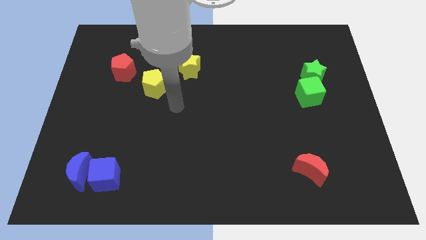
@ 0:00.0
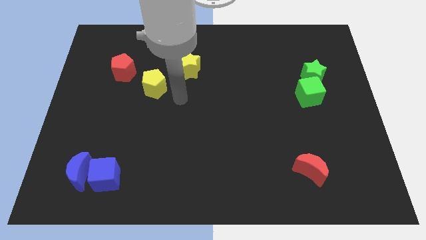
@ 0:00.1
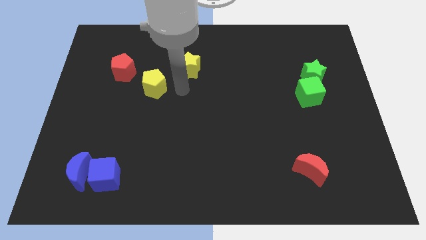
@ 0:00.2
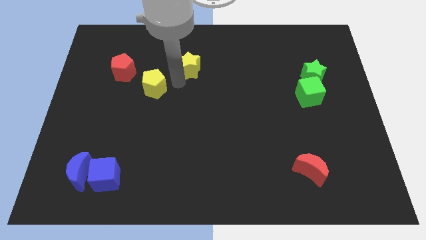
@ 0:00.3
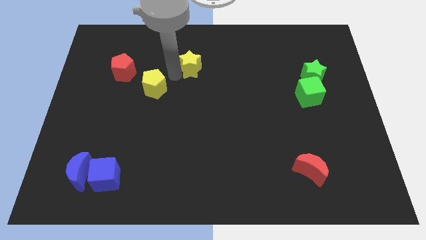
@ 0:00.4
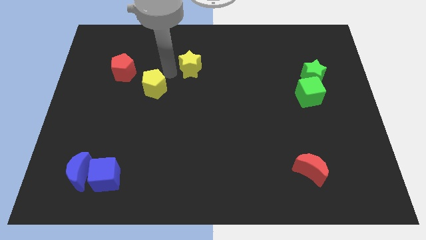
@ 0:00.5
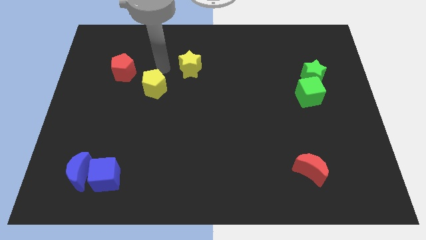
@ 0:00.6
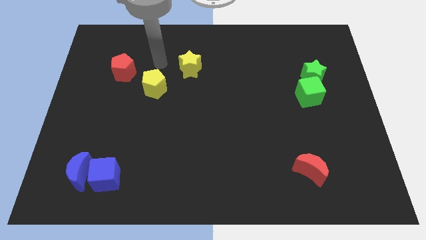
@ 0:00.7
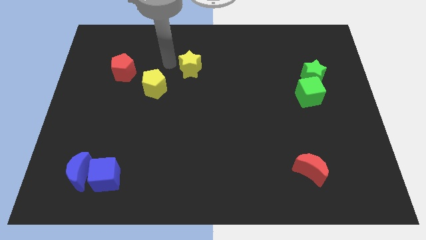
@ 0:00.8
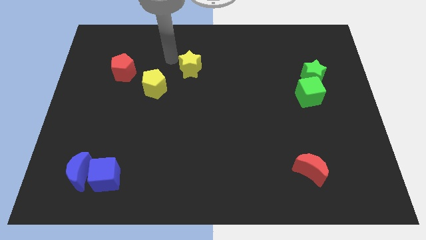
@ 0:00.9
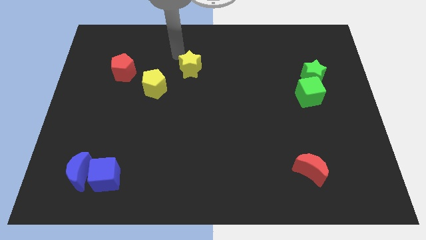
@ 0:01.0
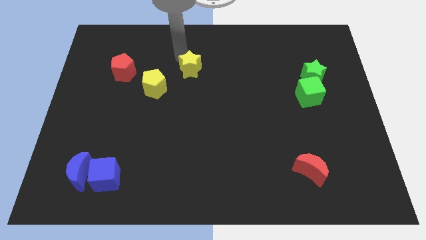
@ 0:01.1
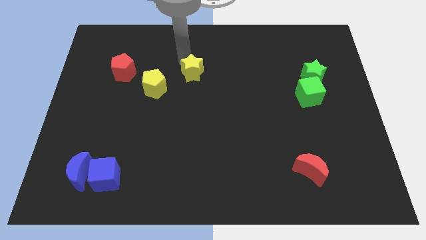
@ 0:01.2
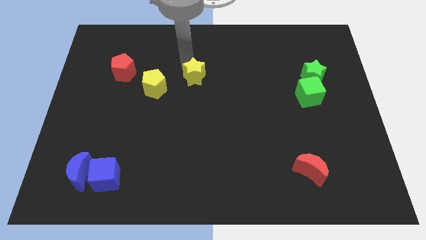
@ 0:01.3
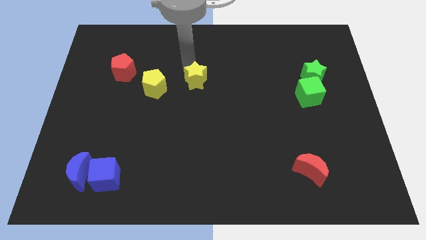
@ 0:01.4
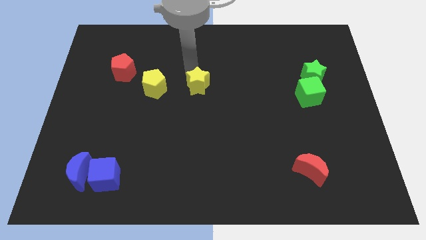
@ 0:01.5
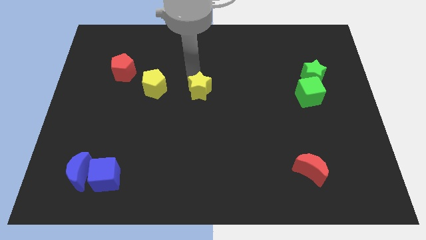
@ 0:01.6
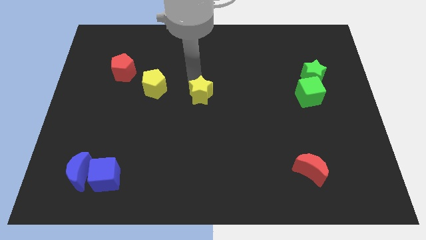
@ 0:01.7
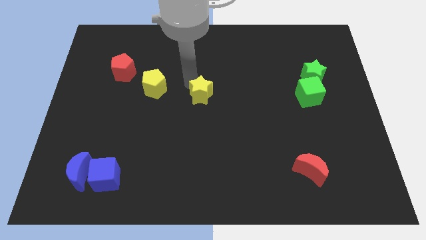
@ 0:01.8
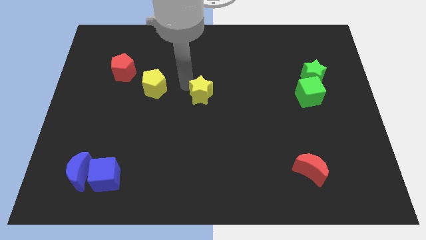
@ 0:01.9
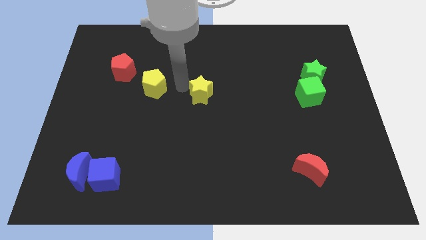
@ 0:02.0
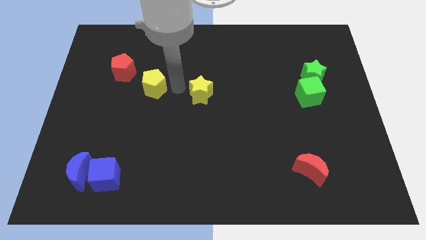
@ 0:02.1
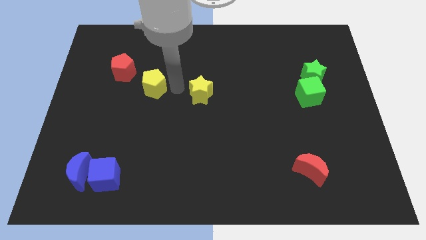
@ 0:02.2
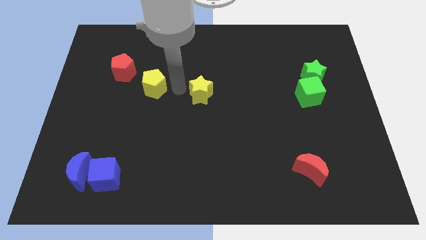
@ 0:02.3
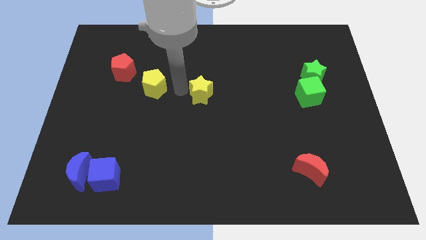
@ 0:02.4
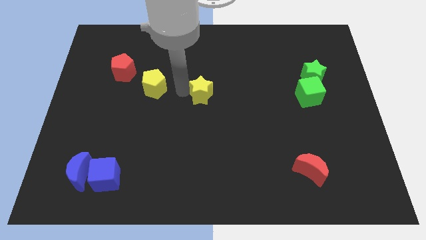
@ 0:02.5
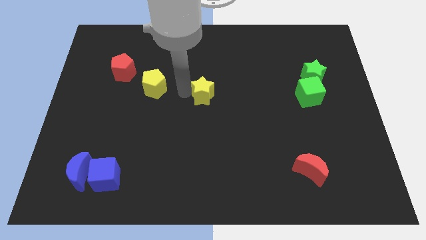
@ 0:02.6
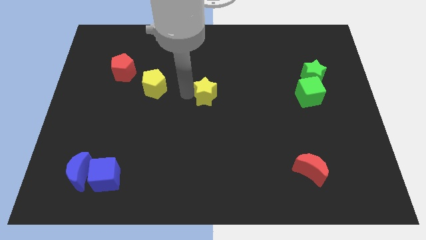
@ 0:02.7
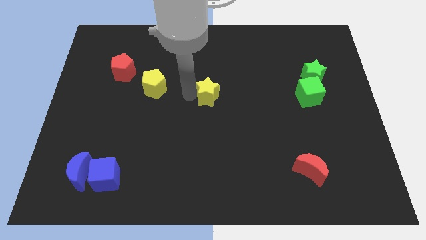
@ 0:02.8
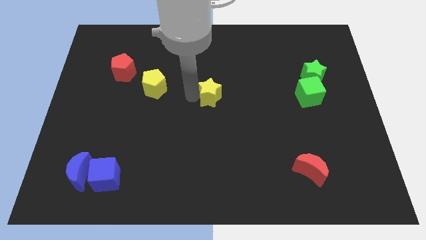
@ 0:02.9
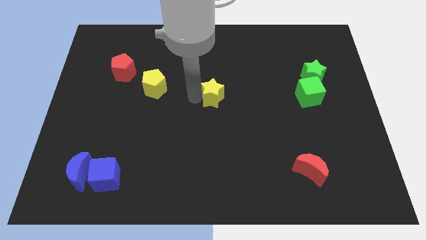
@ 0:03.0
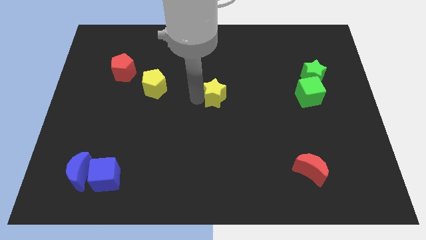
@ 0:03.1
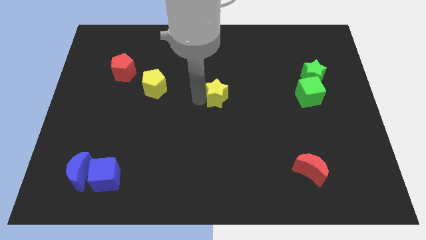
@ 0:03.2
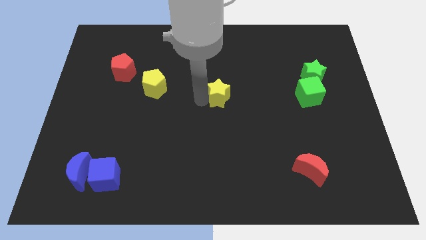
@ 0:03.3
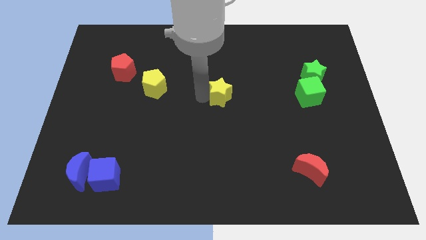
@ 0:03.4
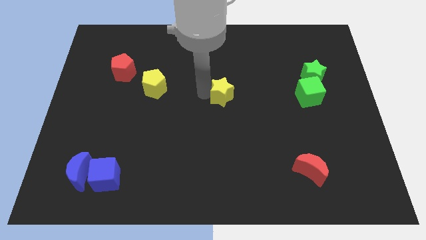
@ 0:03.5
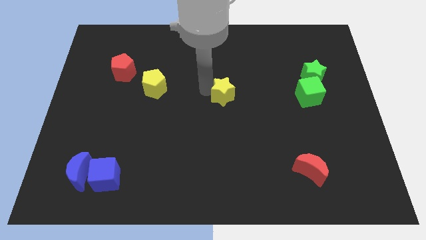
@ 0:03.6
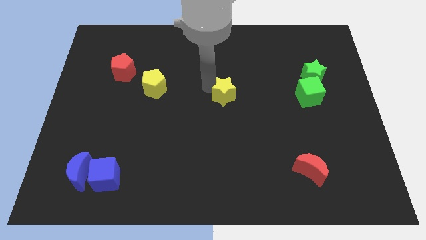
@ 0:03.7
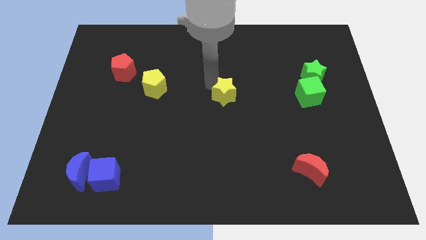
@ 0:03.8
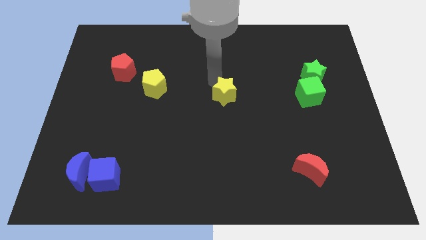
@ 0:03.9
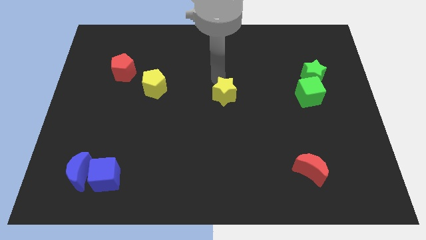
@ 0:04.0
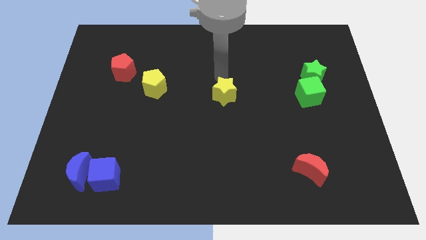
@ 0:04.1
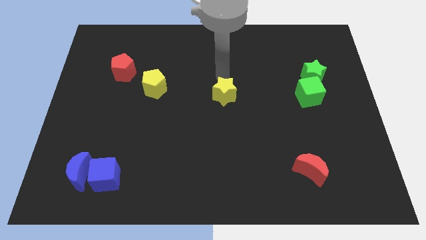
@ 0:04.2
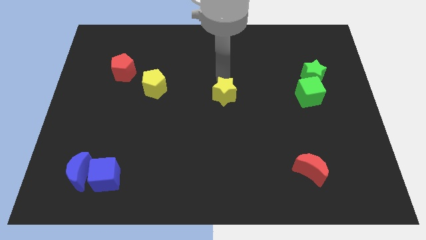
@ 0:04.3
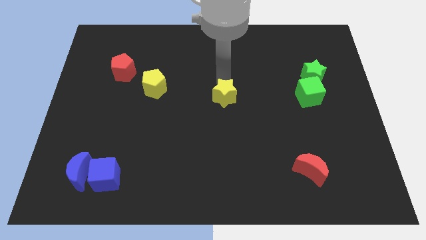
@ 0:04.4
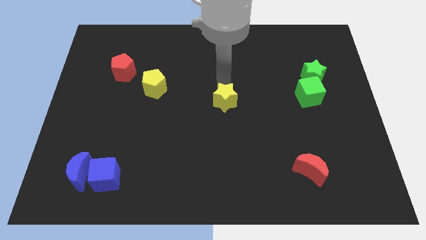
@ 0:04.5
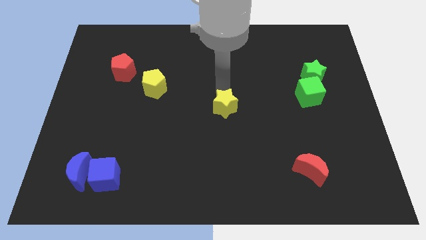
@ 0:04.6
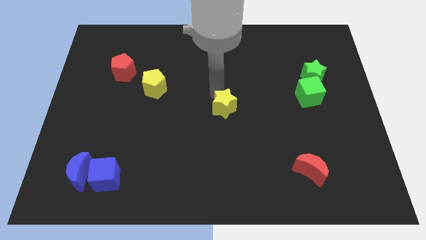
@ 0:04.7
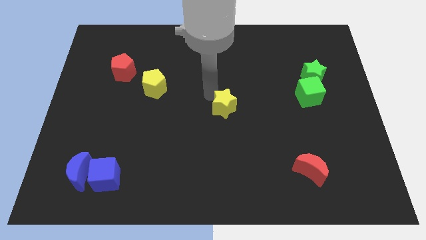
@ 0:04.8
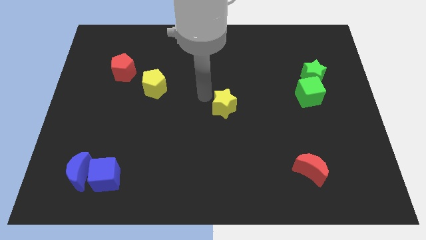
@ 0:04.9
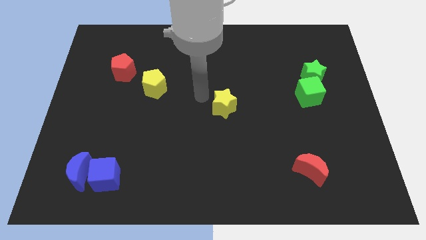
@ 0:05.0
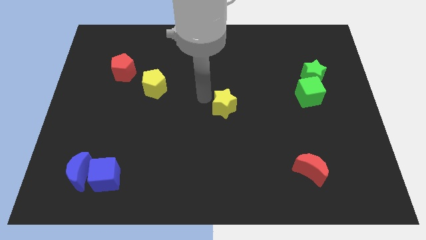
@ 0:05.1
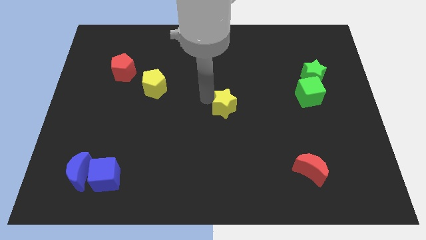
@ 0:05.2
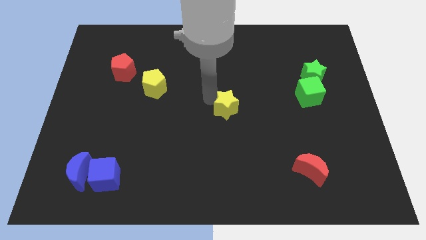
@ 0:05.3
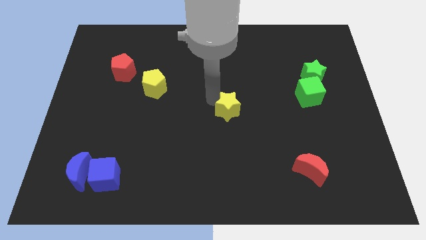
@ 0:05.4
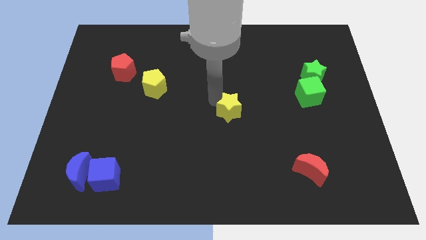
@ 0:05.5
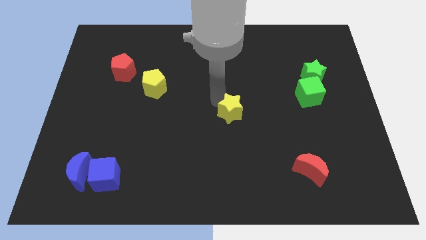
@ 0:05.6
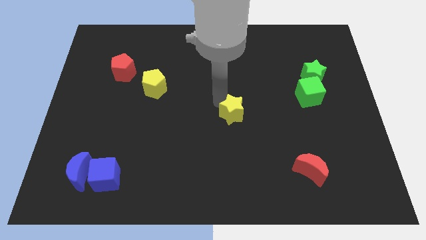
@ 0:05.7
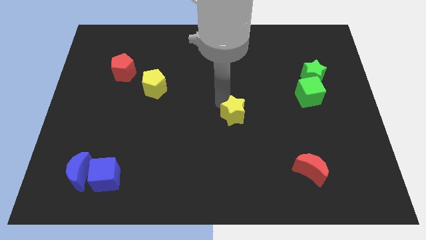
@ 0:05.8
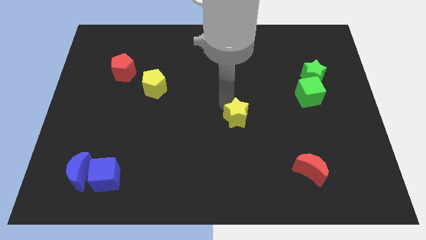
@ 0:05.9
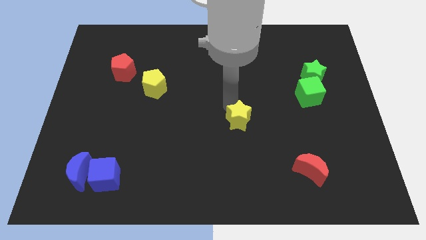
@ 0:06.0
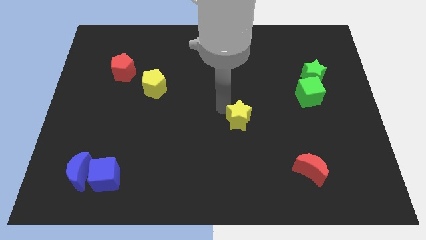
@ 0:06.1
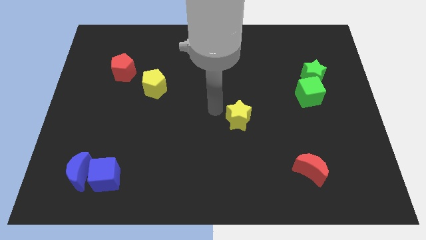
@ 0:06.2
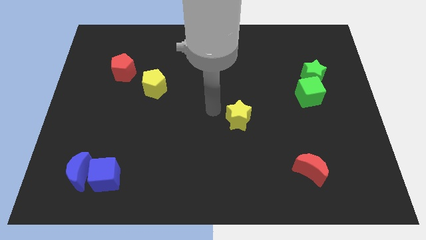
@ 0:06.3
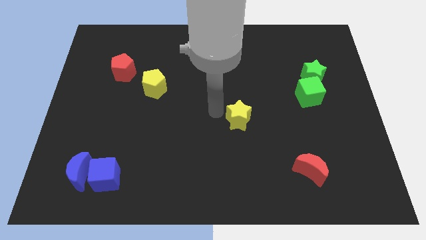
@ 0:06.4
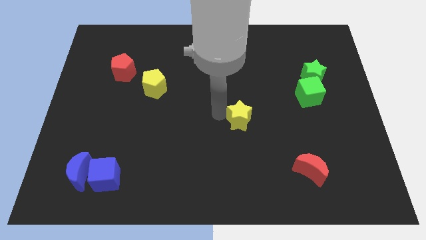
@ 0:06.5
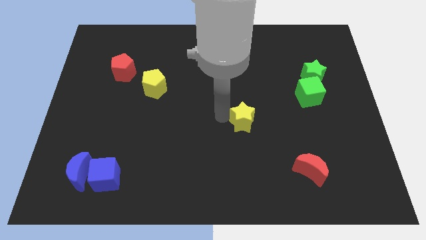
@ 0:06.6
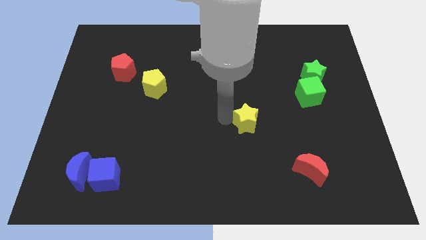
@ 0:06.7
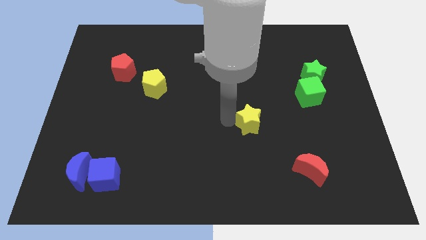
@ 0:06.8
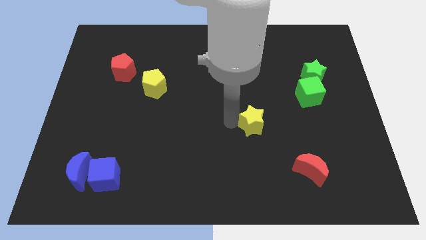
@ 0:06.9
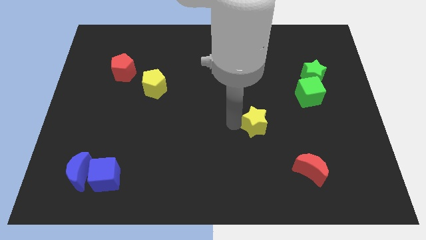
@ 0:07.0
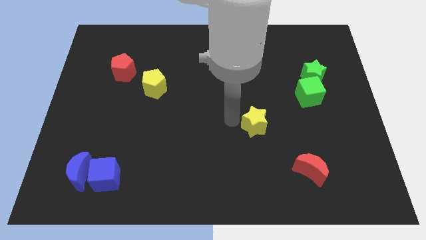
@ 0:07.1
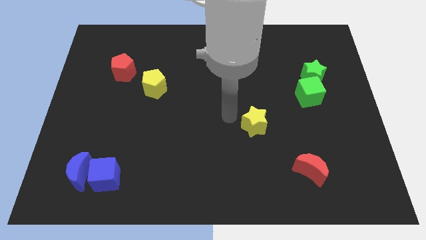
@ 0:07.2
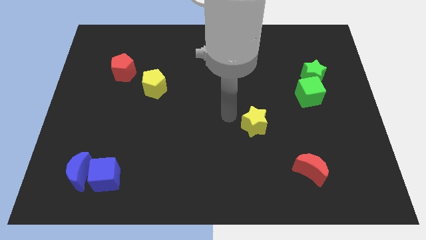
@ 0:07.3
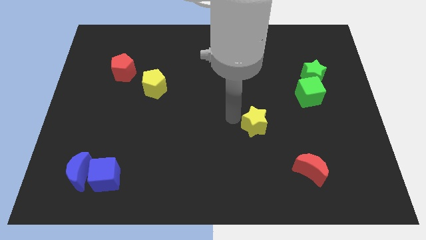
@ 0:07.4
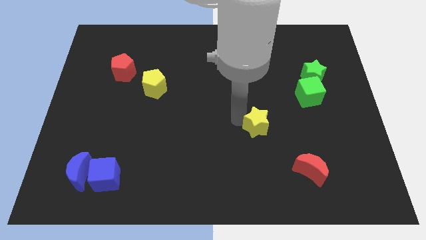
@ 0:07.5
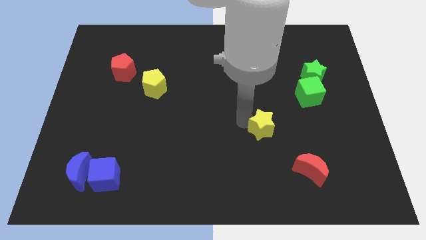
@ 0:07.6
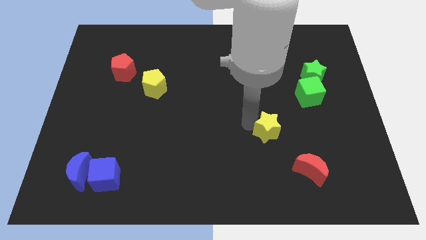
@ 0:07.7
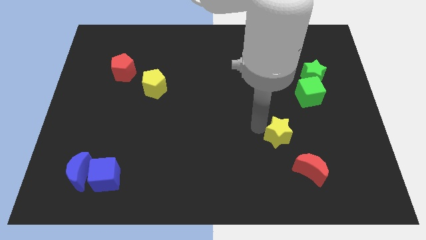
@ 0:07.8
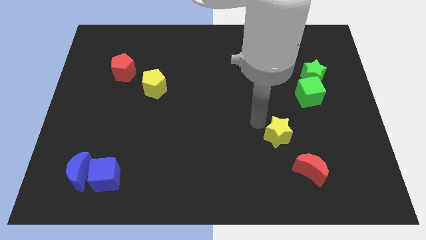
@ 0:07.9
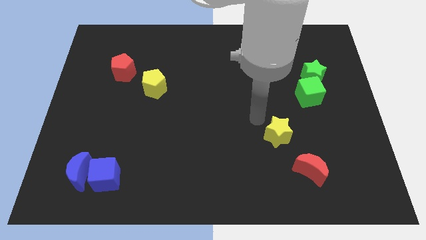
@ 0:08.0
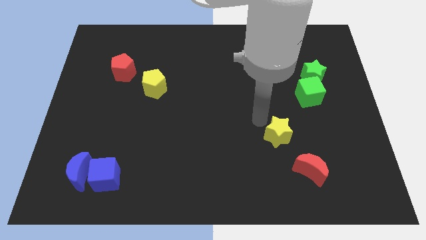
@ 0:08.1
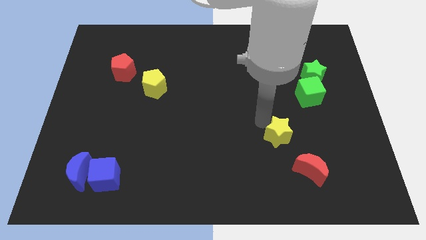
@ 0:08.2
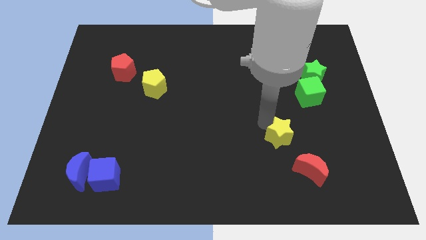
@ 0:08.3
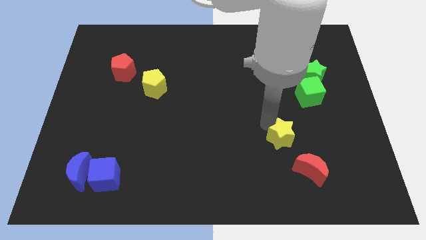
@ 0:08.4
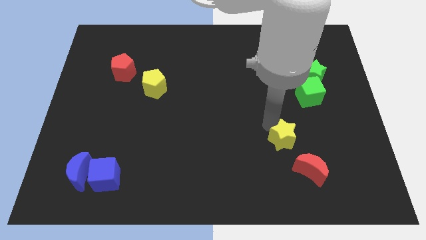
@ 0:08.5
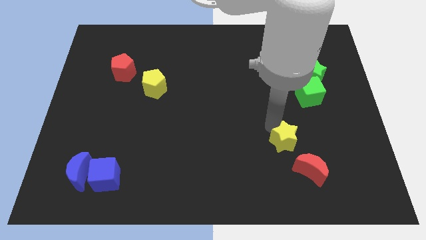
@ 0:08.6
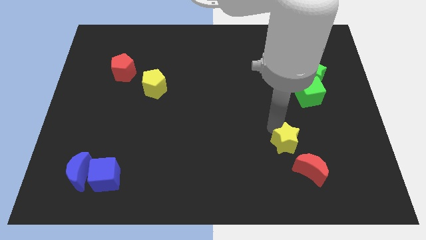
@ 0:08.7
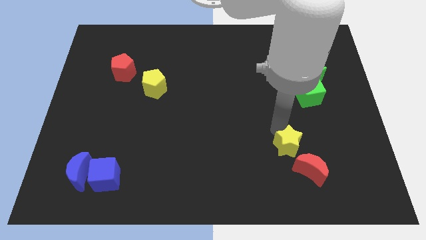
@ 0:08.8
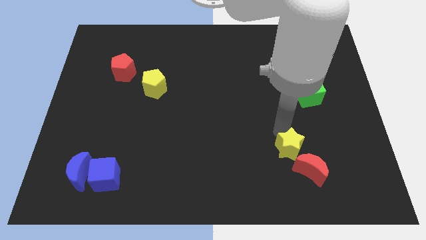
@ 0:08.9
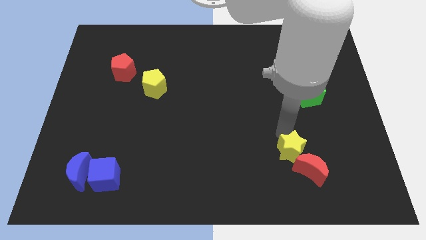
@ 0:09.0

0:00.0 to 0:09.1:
slide the yellow star close to the red moon
